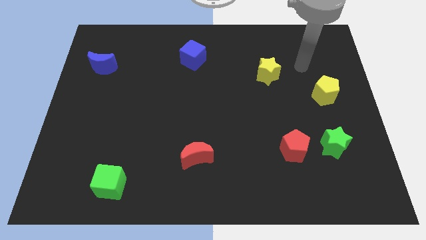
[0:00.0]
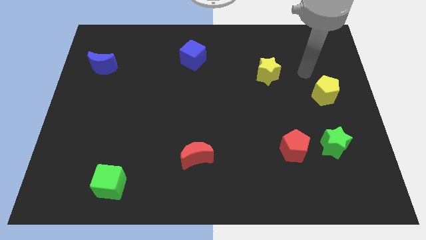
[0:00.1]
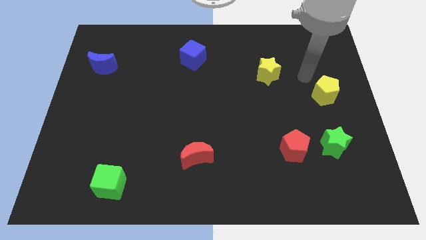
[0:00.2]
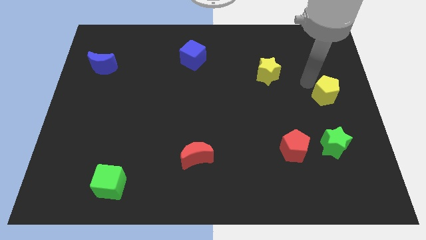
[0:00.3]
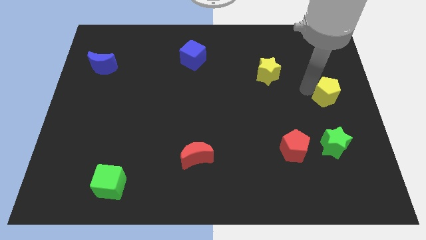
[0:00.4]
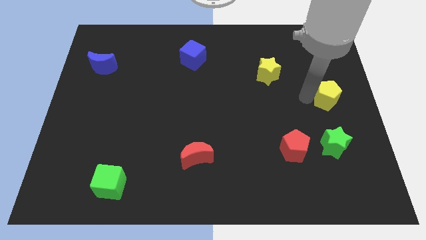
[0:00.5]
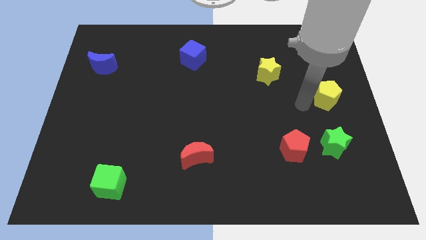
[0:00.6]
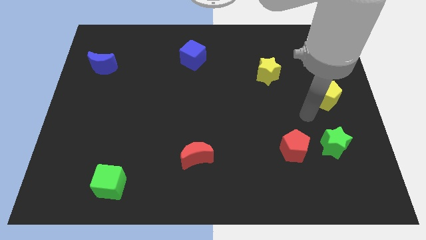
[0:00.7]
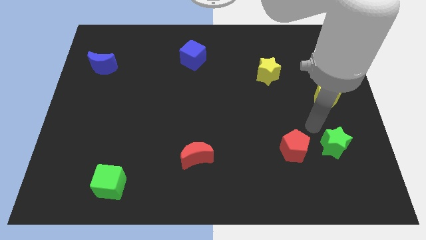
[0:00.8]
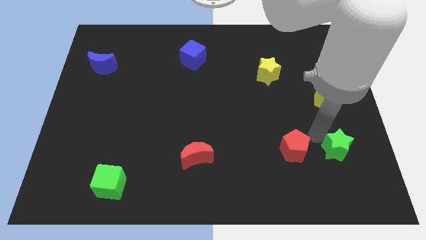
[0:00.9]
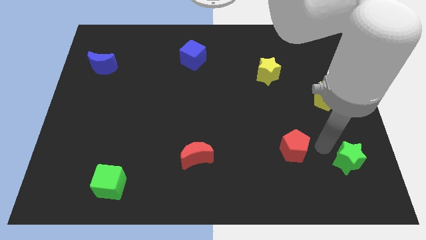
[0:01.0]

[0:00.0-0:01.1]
move the red pentagon away from the green star

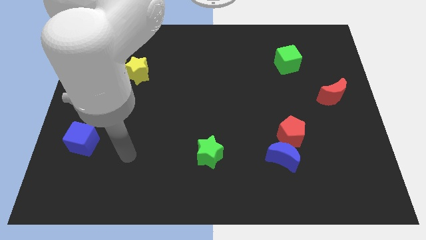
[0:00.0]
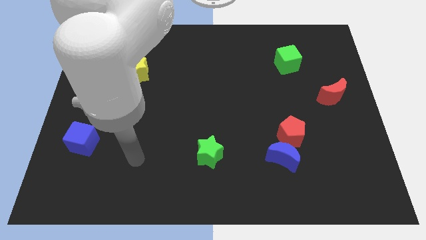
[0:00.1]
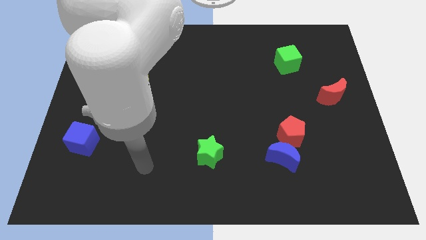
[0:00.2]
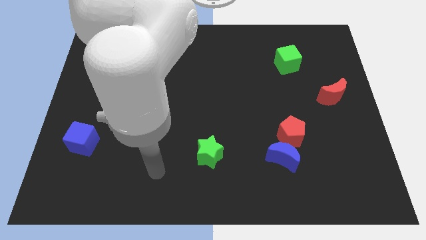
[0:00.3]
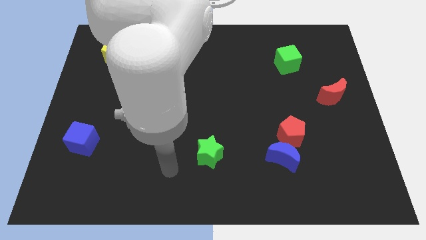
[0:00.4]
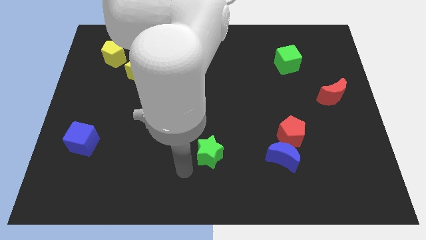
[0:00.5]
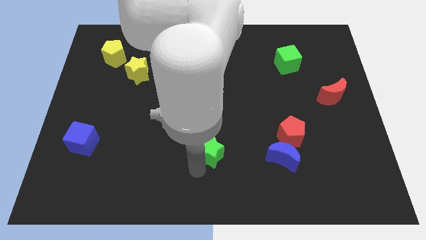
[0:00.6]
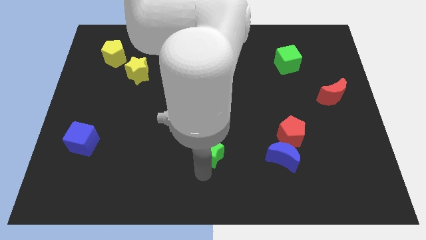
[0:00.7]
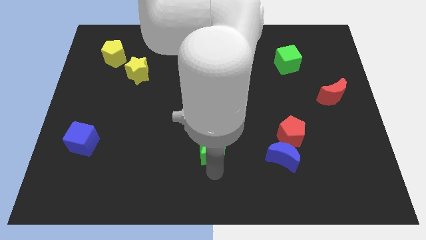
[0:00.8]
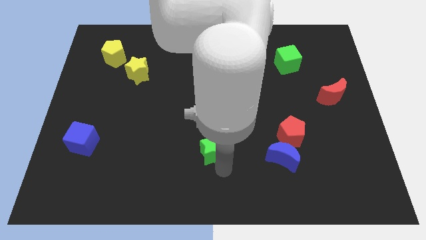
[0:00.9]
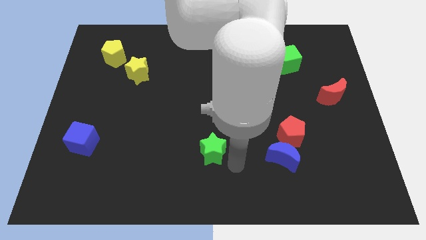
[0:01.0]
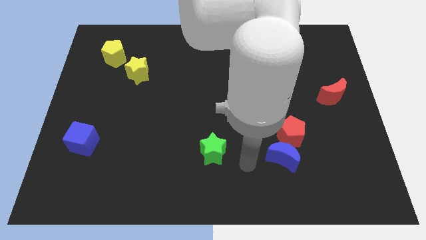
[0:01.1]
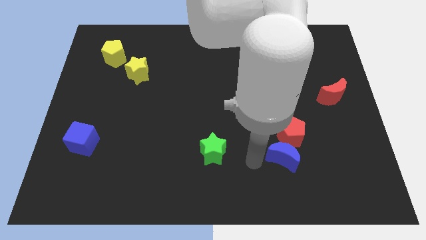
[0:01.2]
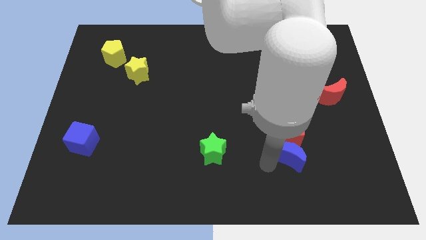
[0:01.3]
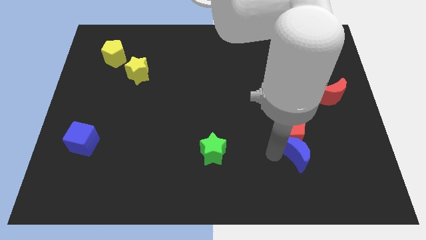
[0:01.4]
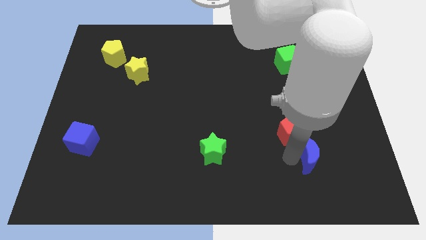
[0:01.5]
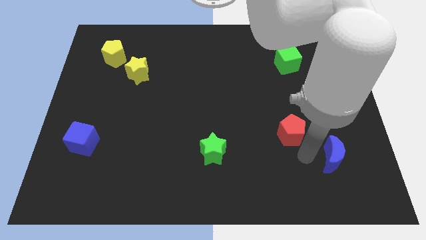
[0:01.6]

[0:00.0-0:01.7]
move the red pentagon away from the blue moon

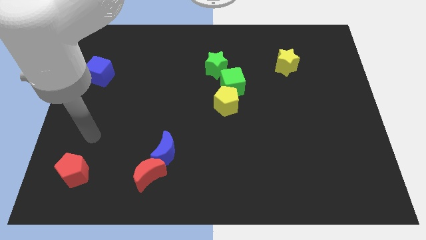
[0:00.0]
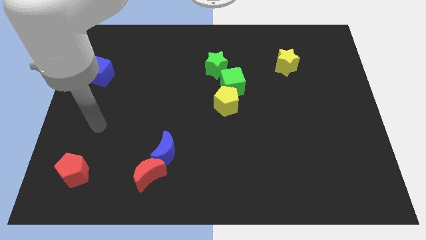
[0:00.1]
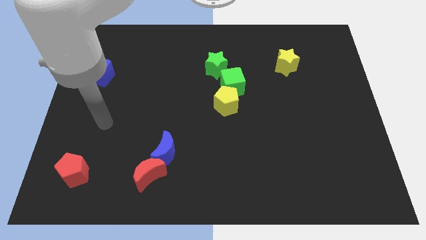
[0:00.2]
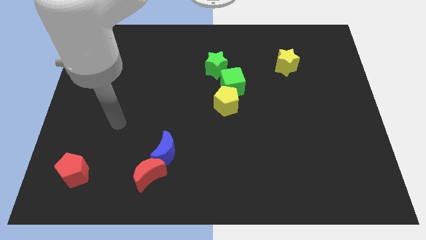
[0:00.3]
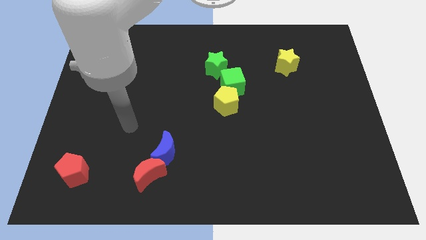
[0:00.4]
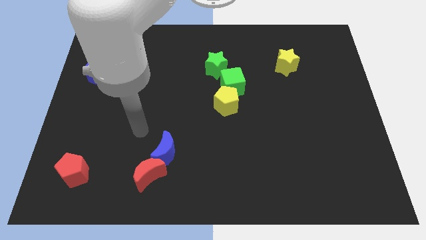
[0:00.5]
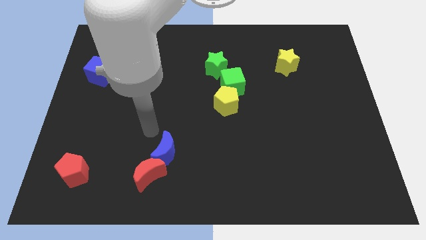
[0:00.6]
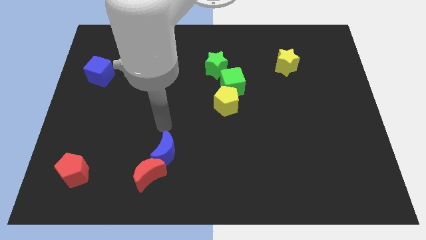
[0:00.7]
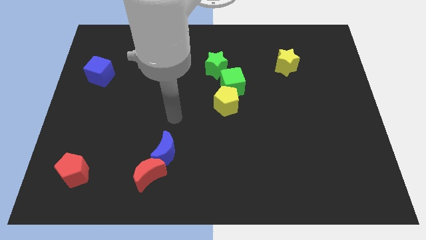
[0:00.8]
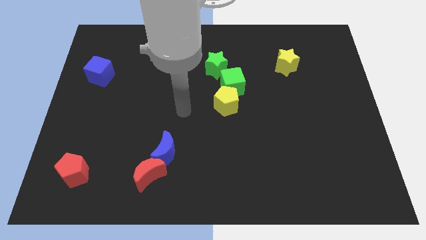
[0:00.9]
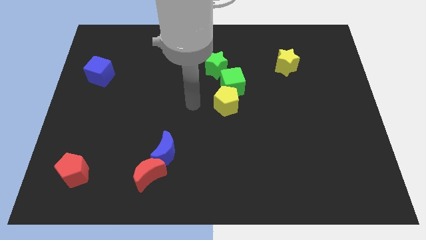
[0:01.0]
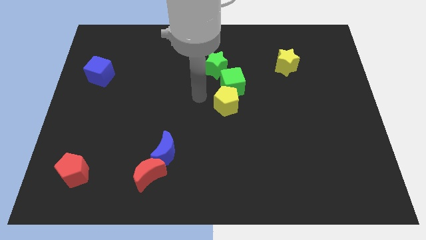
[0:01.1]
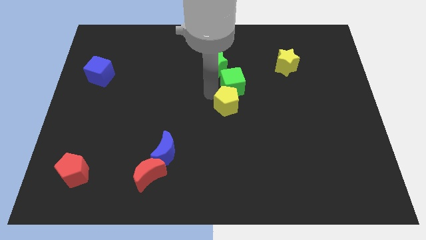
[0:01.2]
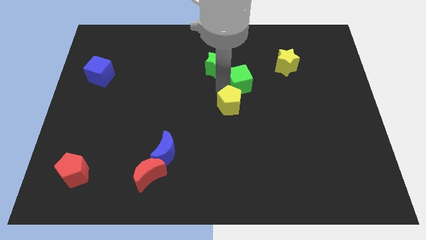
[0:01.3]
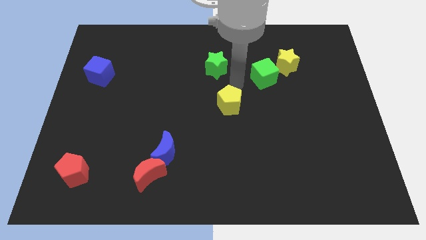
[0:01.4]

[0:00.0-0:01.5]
pull the yellow pentagon apart from the green cube

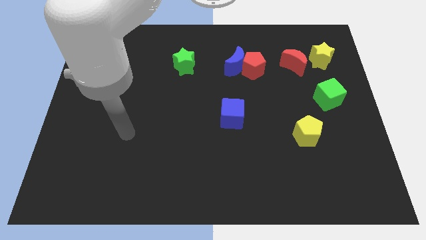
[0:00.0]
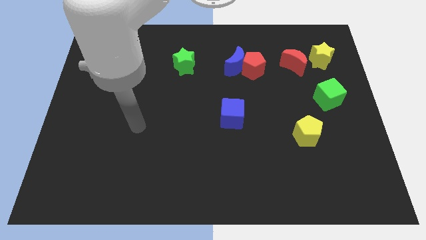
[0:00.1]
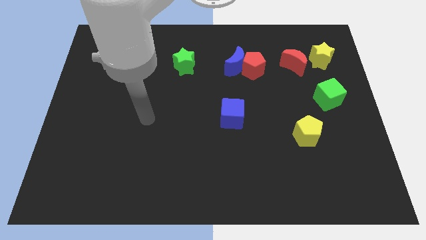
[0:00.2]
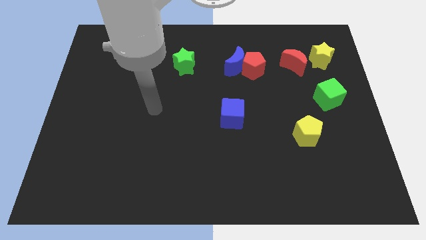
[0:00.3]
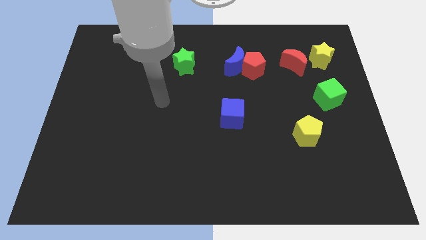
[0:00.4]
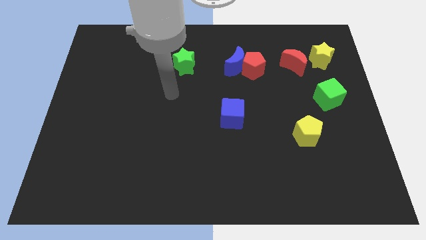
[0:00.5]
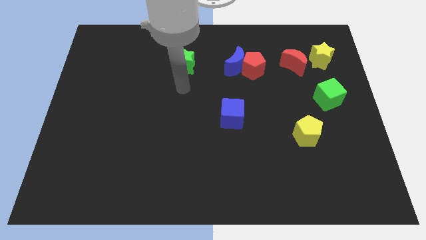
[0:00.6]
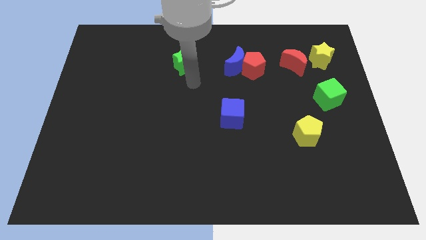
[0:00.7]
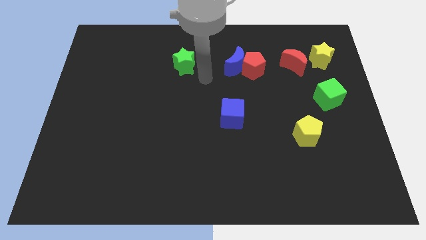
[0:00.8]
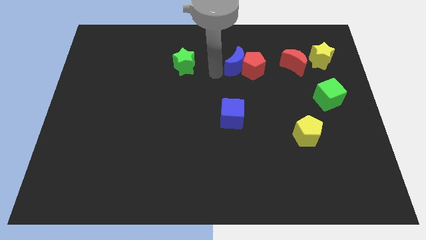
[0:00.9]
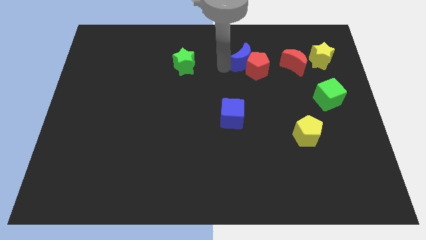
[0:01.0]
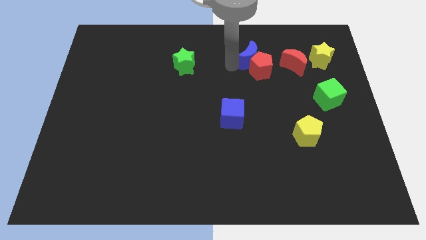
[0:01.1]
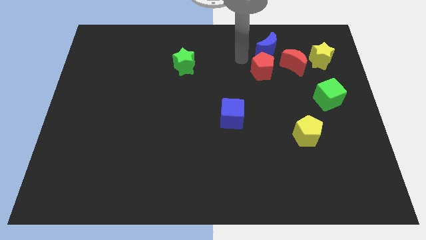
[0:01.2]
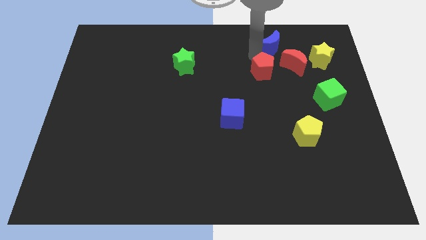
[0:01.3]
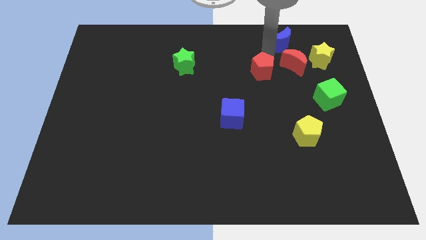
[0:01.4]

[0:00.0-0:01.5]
pull the red pentagon apart from the blue moon

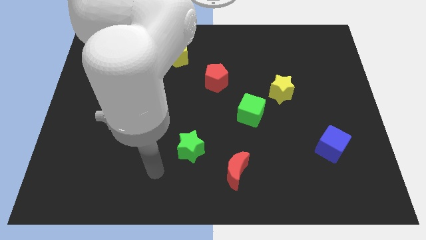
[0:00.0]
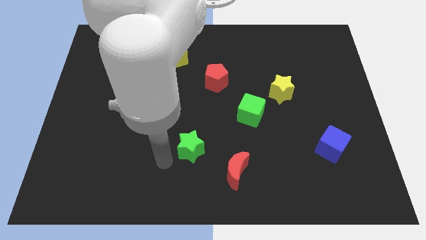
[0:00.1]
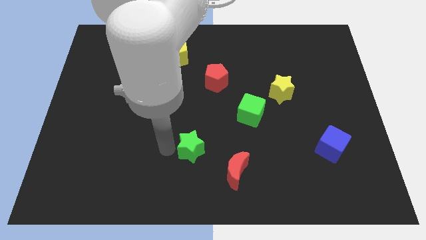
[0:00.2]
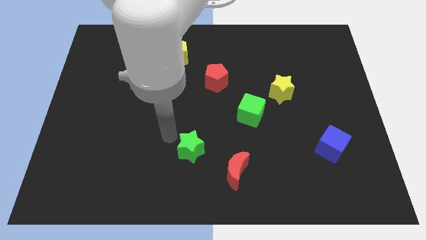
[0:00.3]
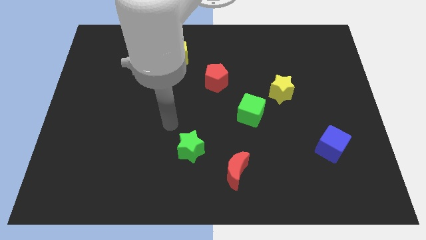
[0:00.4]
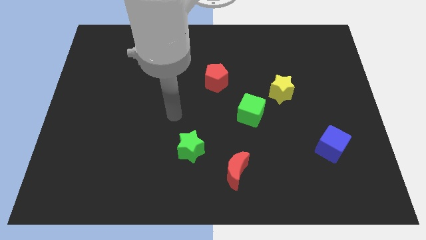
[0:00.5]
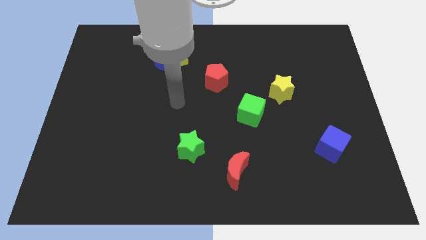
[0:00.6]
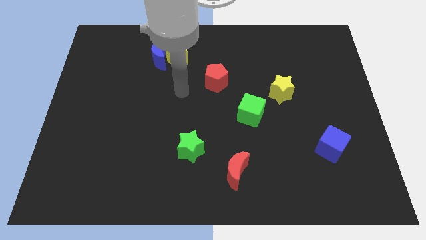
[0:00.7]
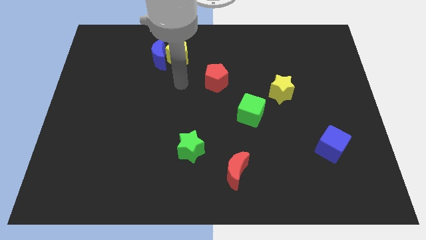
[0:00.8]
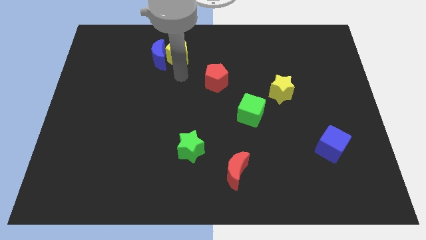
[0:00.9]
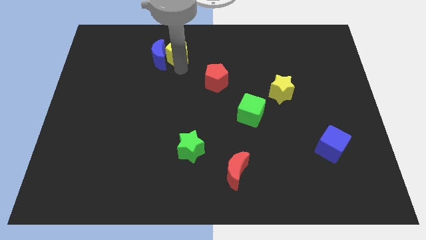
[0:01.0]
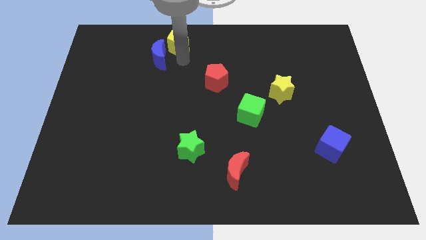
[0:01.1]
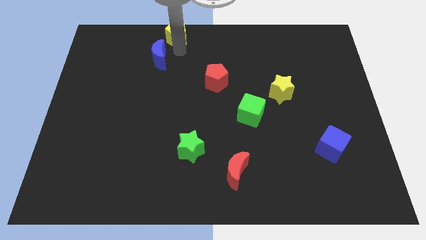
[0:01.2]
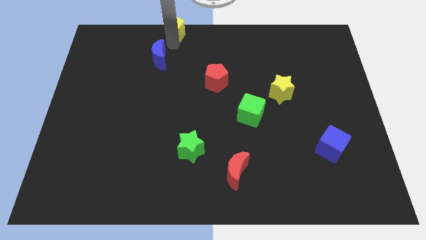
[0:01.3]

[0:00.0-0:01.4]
move the blue moon away from the yellow pentagon

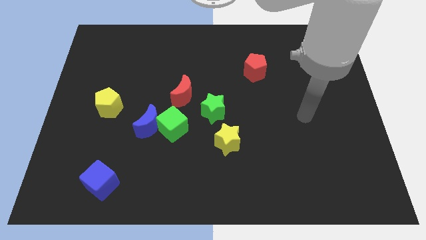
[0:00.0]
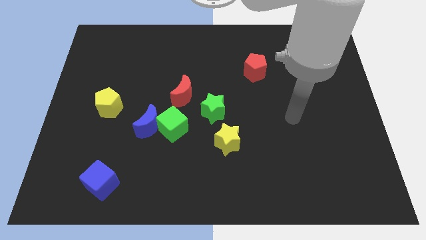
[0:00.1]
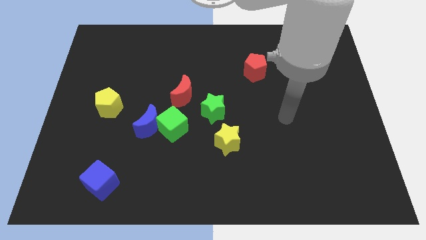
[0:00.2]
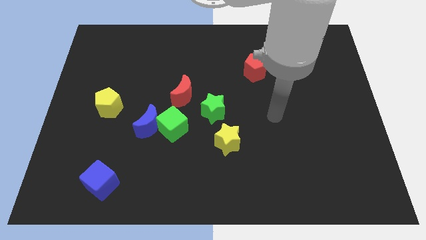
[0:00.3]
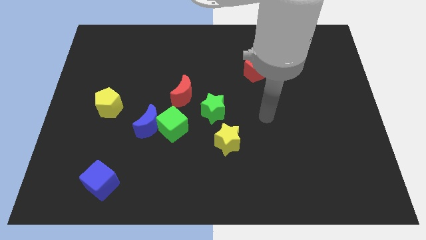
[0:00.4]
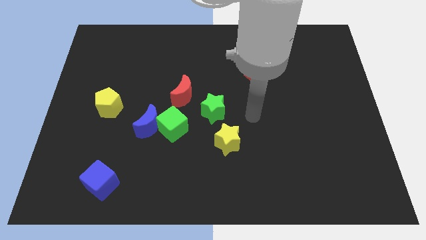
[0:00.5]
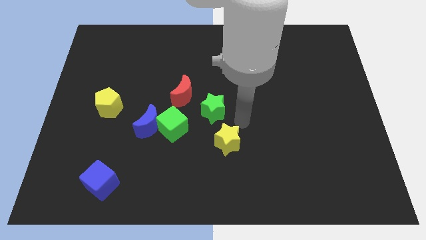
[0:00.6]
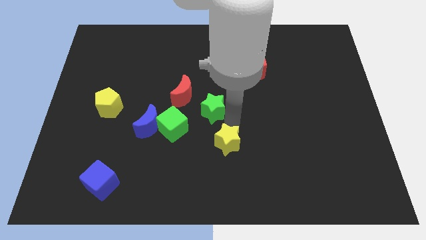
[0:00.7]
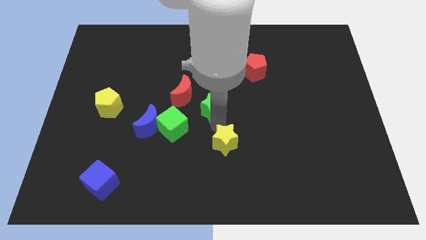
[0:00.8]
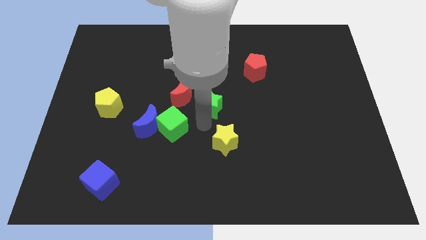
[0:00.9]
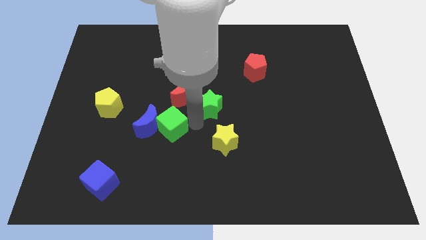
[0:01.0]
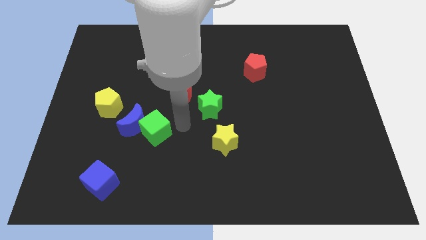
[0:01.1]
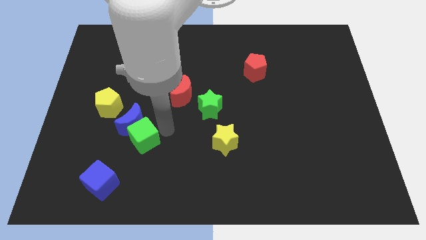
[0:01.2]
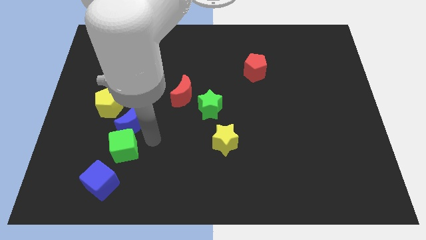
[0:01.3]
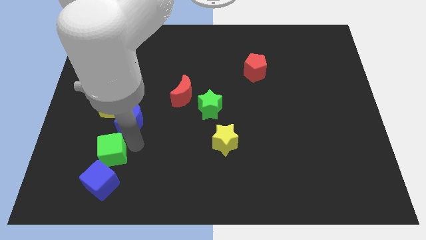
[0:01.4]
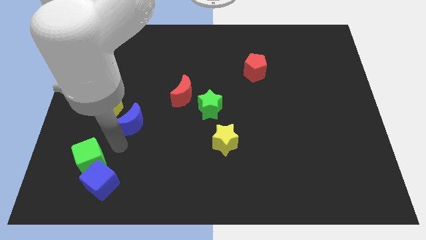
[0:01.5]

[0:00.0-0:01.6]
pull the blue moon apart from the green cube

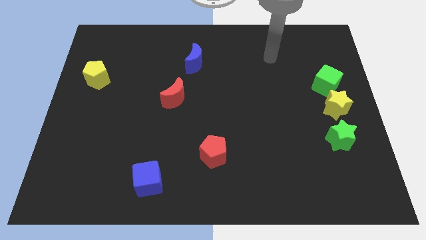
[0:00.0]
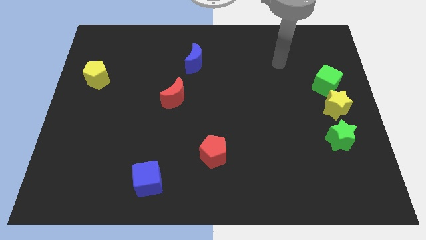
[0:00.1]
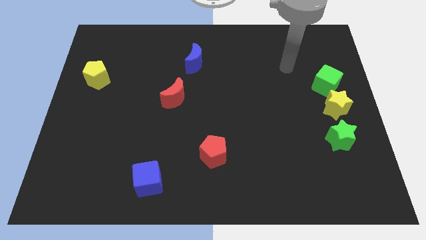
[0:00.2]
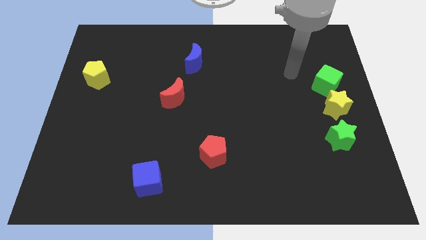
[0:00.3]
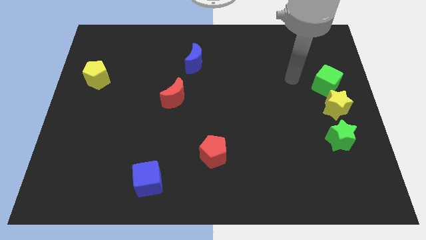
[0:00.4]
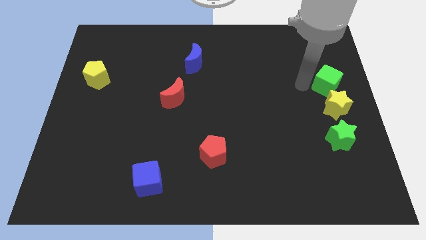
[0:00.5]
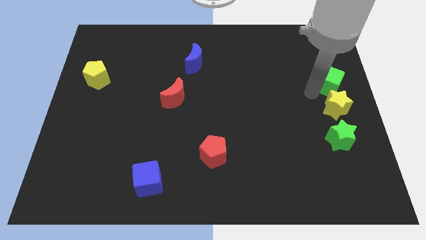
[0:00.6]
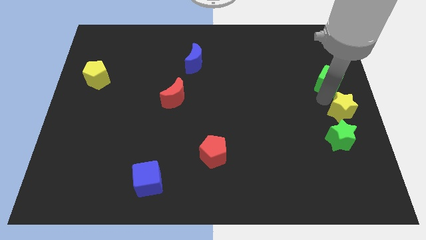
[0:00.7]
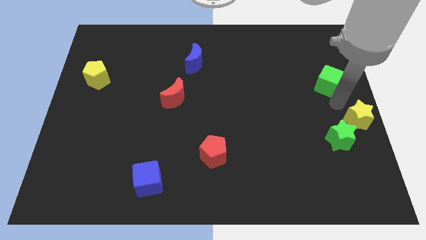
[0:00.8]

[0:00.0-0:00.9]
separate the green cube from the yellow star
